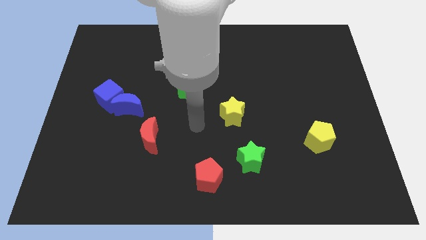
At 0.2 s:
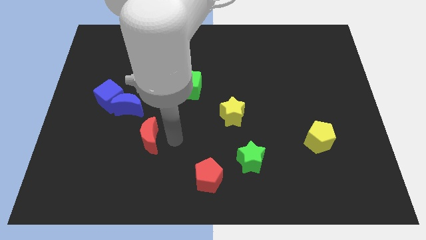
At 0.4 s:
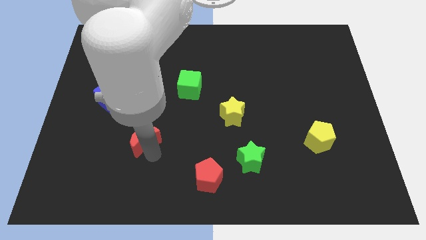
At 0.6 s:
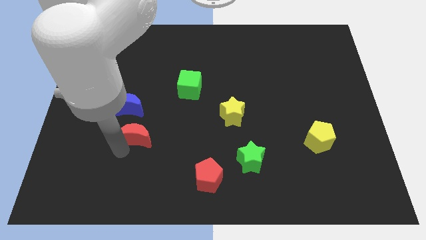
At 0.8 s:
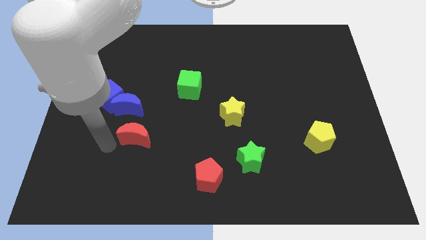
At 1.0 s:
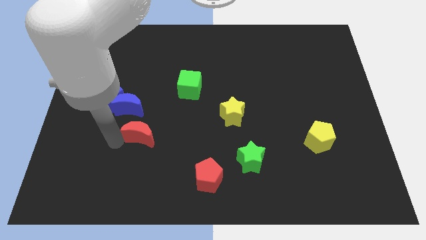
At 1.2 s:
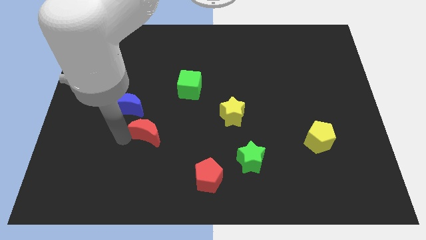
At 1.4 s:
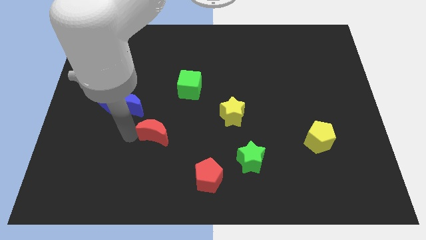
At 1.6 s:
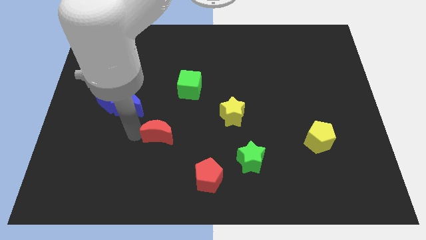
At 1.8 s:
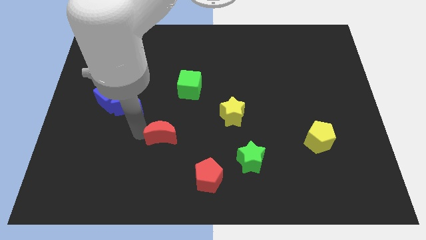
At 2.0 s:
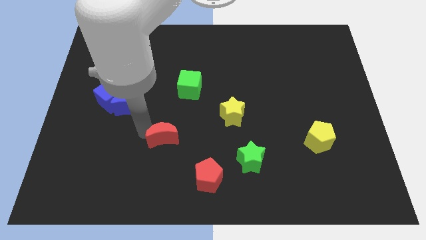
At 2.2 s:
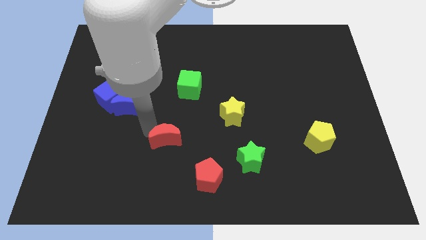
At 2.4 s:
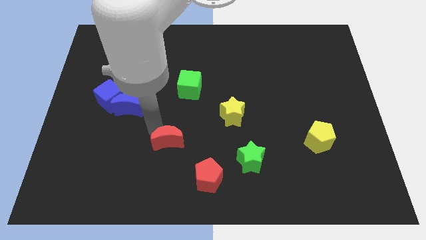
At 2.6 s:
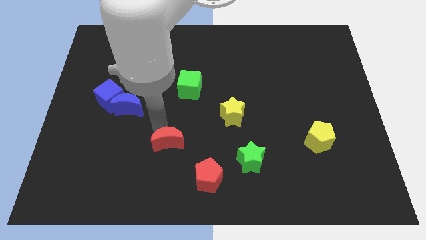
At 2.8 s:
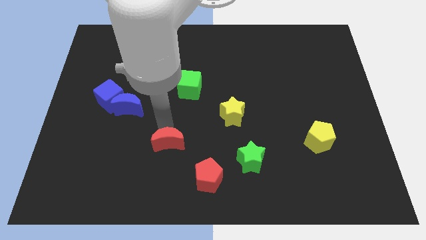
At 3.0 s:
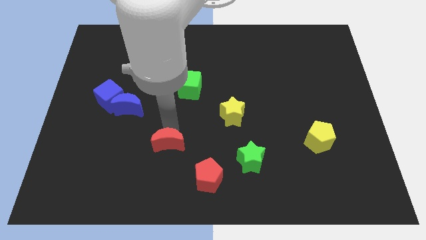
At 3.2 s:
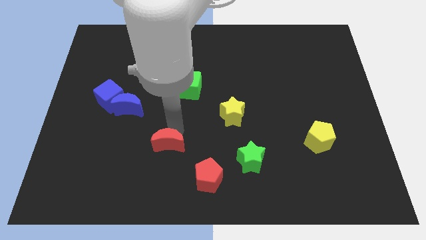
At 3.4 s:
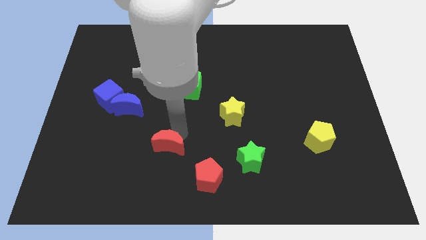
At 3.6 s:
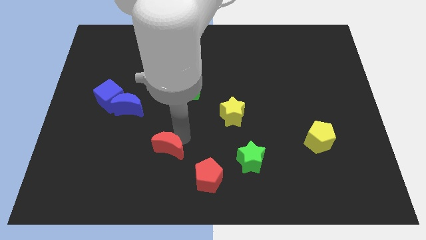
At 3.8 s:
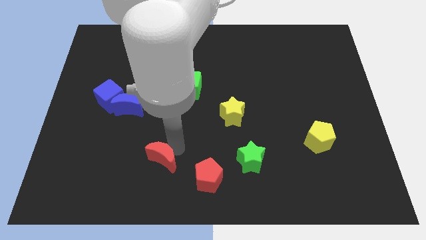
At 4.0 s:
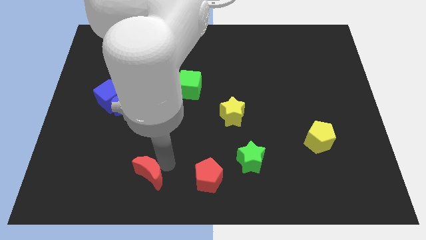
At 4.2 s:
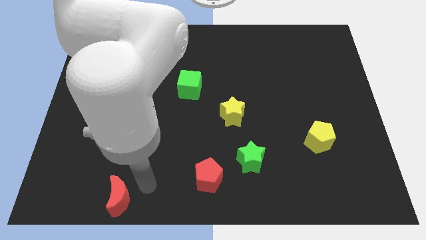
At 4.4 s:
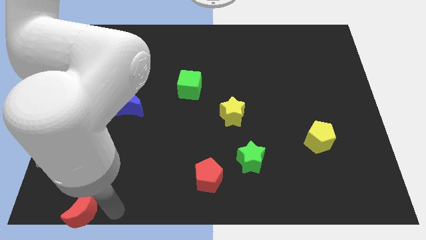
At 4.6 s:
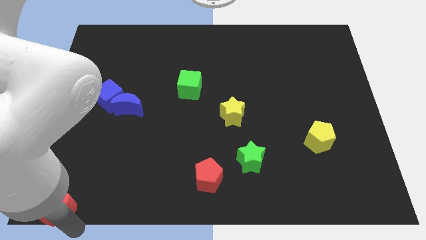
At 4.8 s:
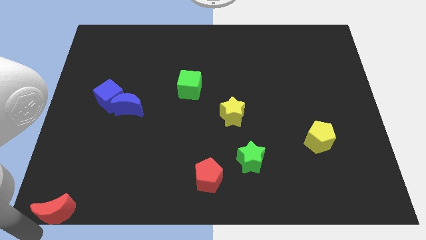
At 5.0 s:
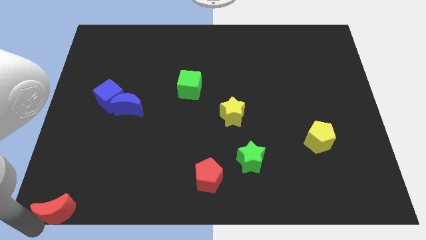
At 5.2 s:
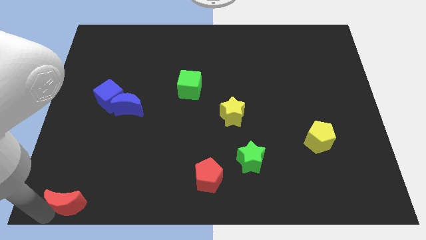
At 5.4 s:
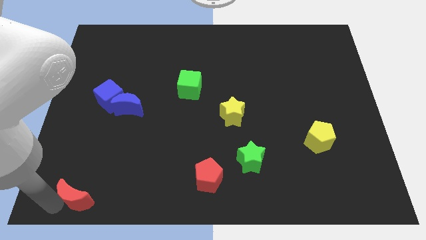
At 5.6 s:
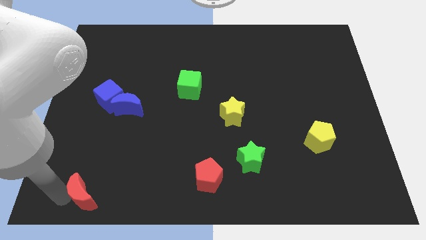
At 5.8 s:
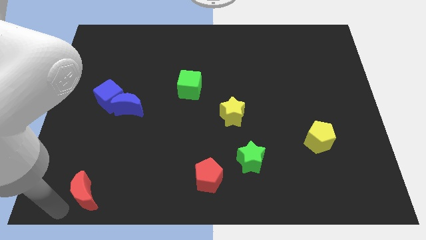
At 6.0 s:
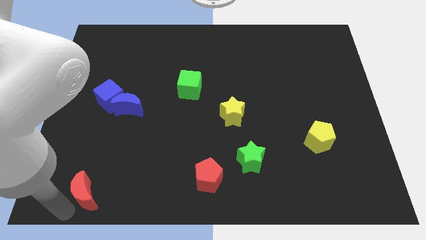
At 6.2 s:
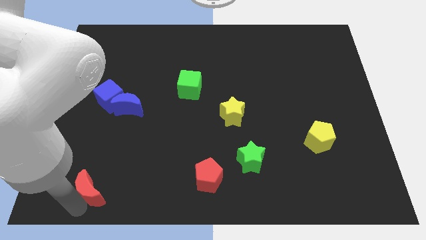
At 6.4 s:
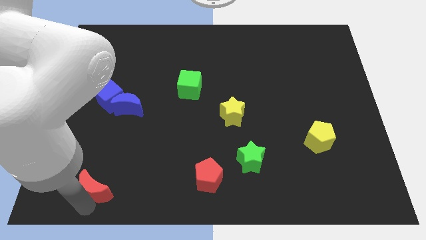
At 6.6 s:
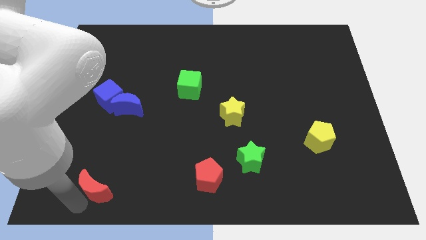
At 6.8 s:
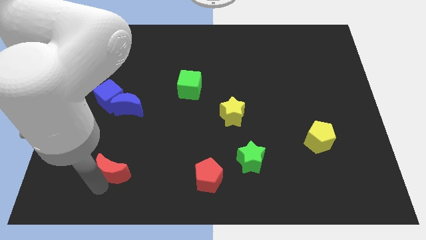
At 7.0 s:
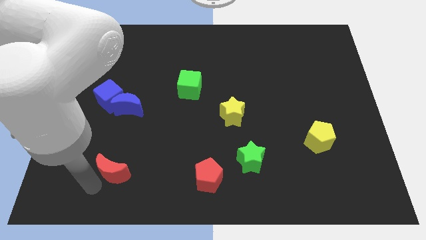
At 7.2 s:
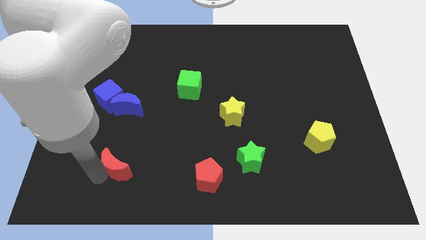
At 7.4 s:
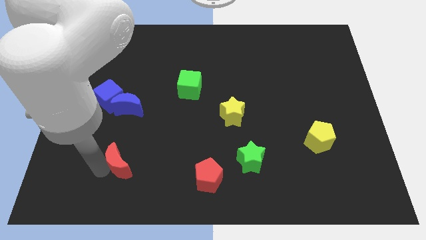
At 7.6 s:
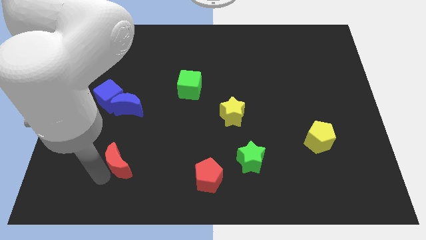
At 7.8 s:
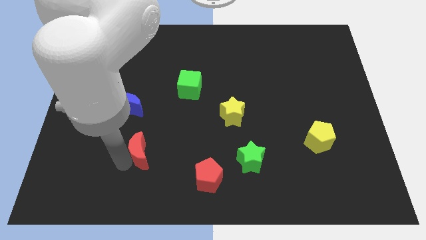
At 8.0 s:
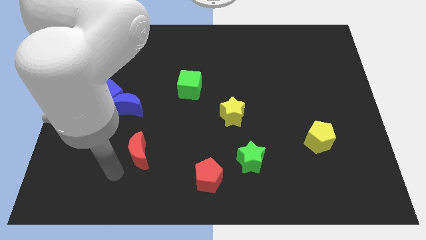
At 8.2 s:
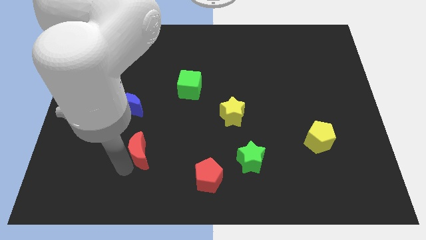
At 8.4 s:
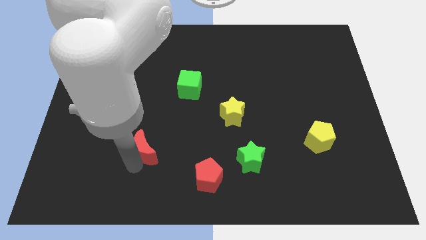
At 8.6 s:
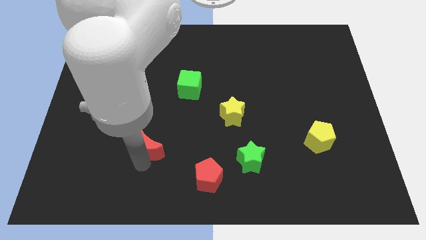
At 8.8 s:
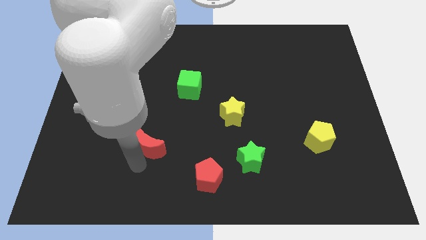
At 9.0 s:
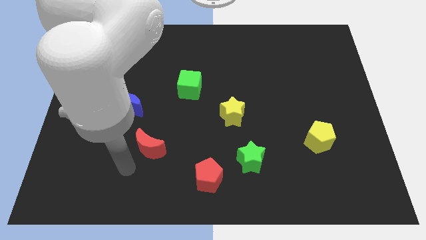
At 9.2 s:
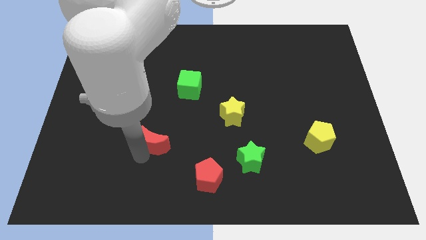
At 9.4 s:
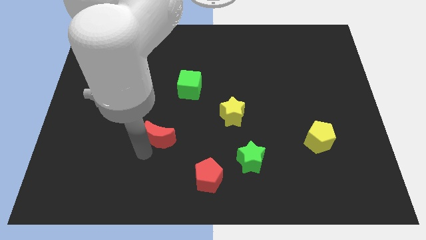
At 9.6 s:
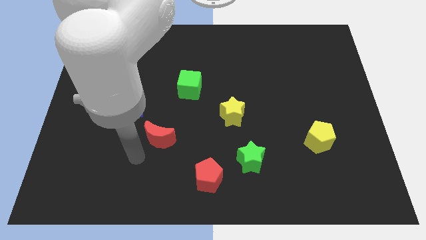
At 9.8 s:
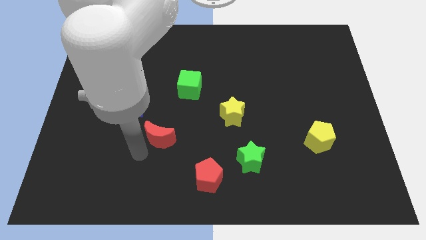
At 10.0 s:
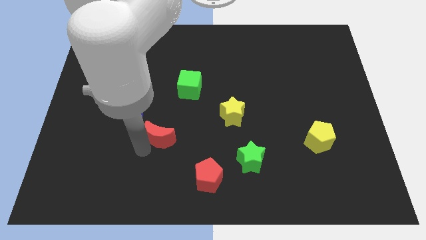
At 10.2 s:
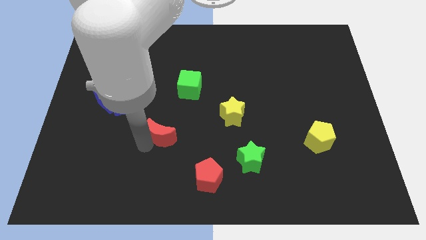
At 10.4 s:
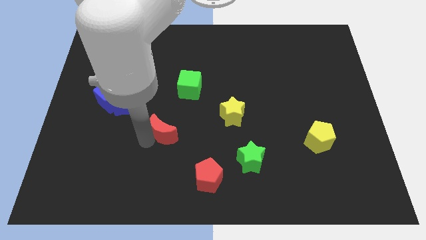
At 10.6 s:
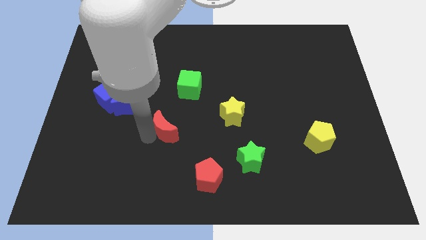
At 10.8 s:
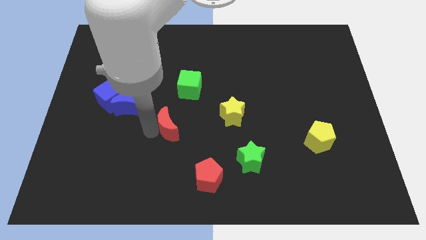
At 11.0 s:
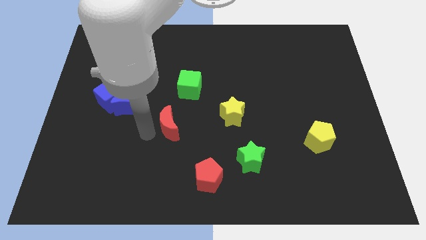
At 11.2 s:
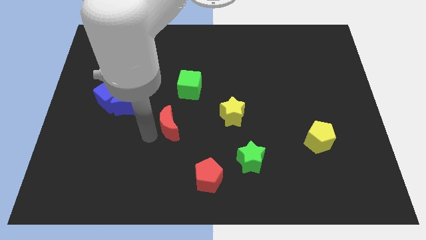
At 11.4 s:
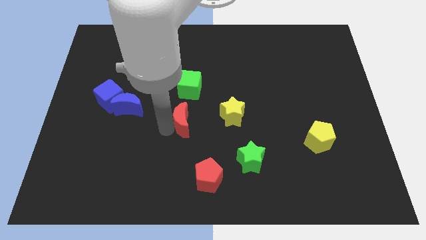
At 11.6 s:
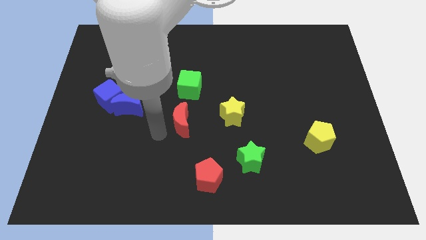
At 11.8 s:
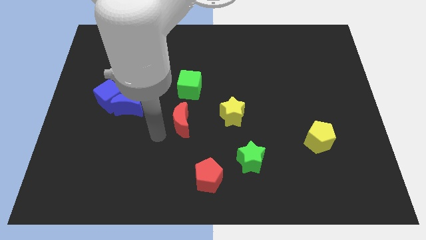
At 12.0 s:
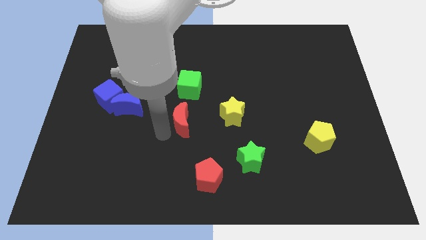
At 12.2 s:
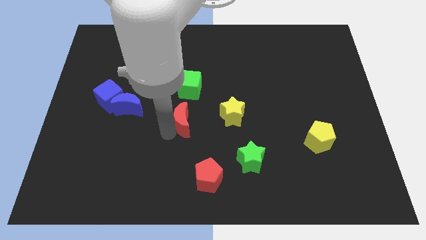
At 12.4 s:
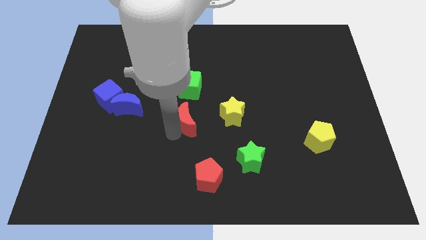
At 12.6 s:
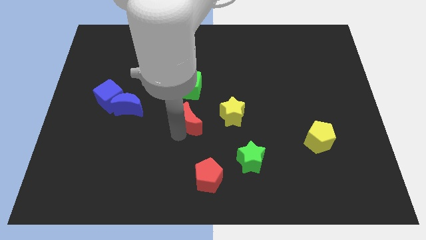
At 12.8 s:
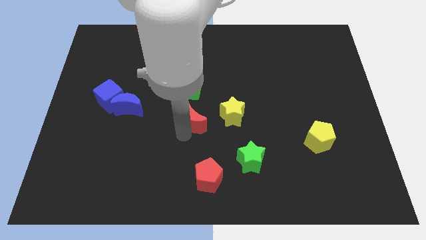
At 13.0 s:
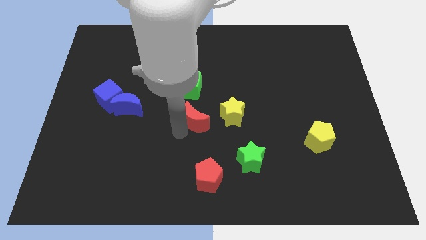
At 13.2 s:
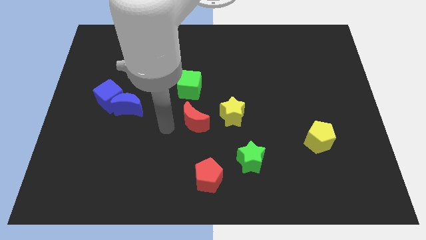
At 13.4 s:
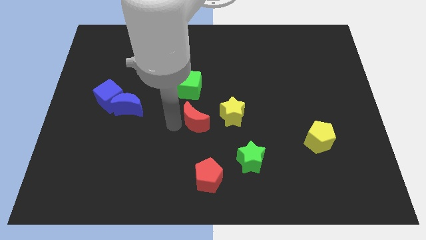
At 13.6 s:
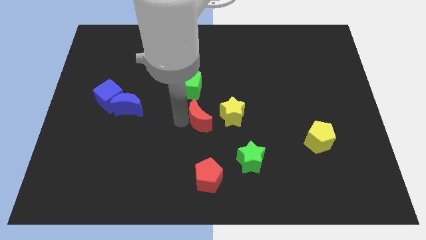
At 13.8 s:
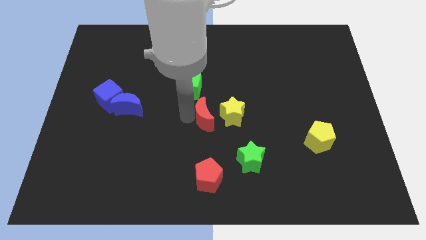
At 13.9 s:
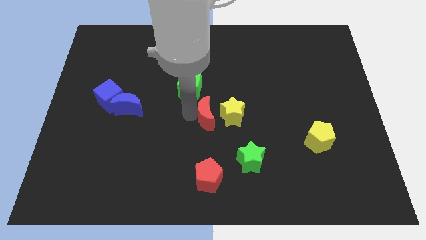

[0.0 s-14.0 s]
move the red moon next to the yellow star
